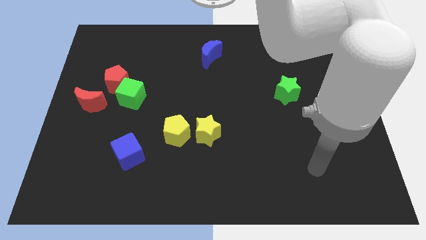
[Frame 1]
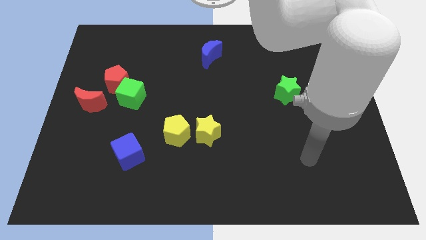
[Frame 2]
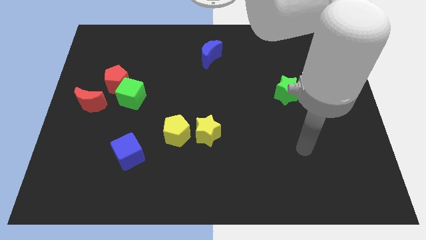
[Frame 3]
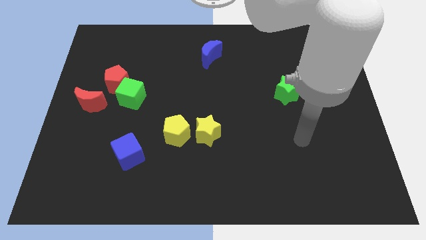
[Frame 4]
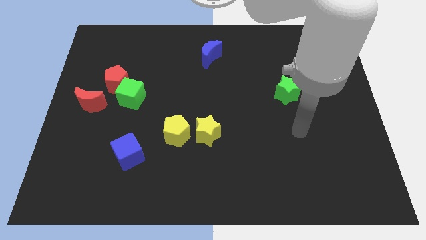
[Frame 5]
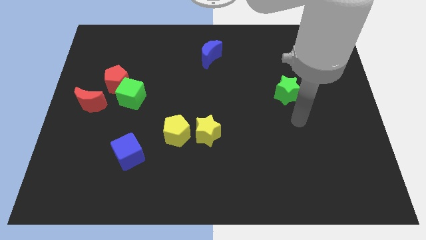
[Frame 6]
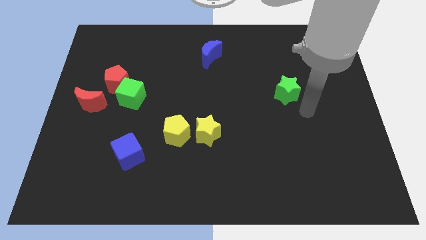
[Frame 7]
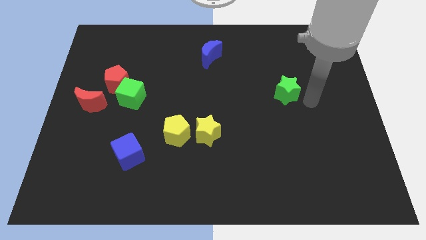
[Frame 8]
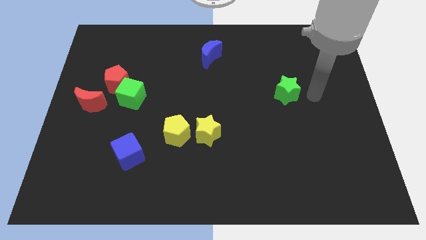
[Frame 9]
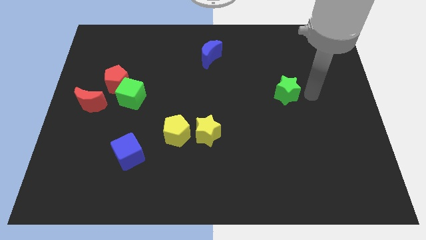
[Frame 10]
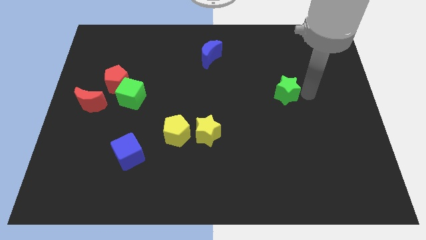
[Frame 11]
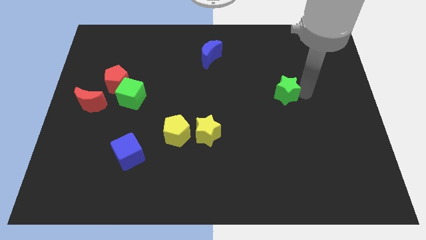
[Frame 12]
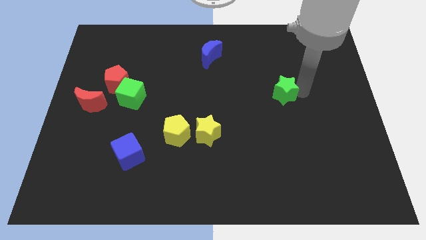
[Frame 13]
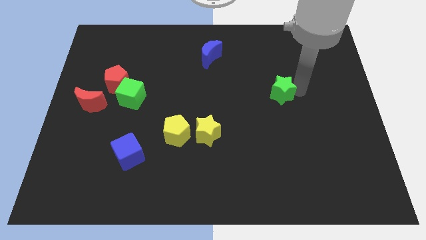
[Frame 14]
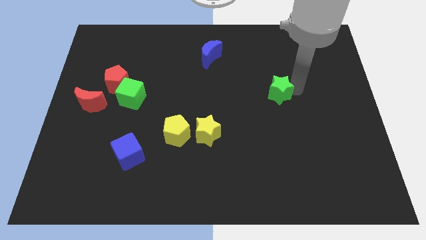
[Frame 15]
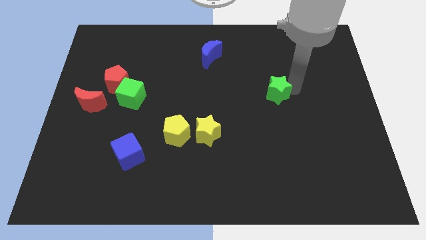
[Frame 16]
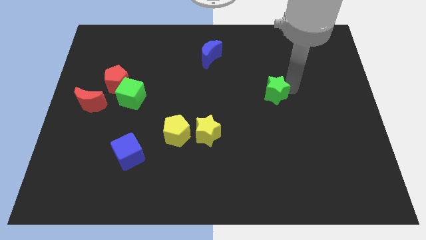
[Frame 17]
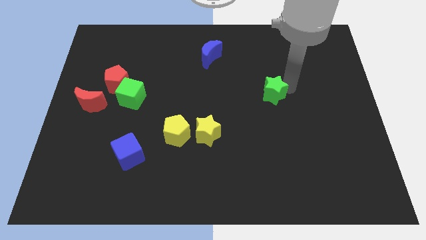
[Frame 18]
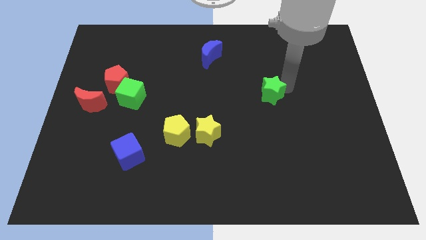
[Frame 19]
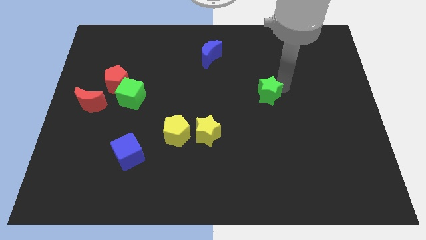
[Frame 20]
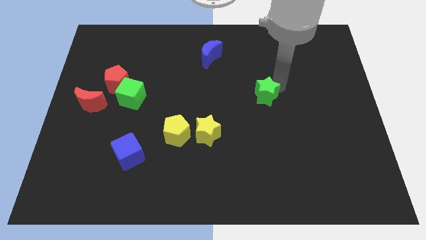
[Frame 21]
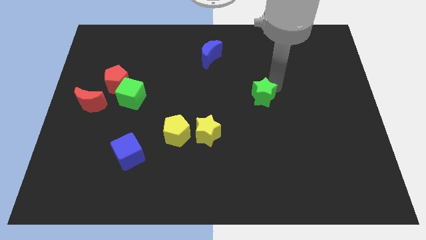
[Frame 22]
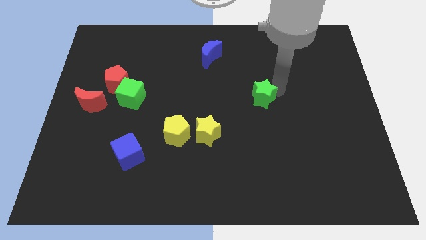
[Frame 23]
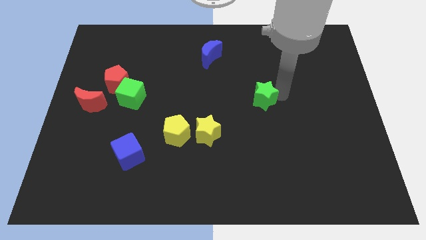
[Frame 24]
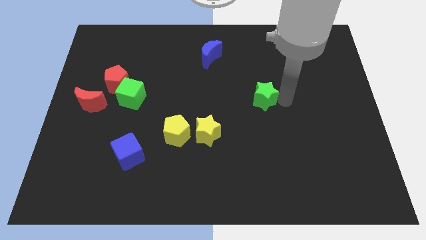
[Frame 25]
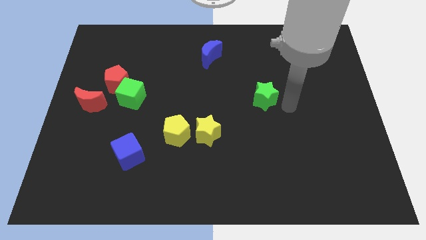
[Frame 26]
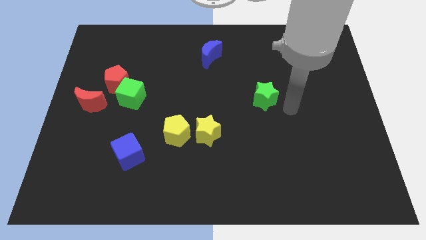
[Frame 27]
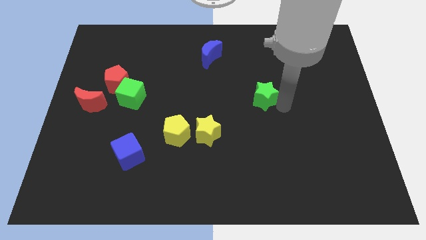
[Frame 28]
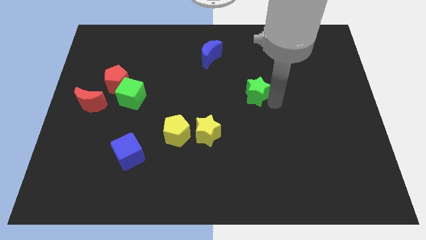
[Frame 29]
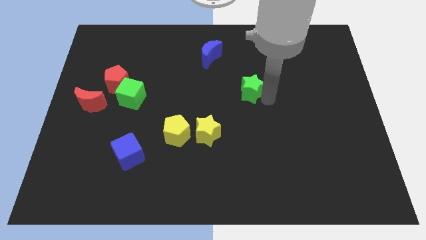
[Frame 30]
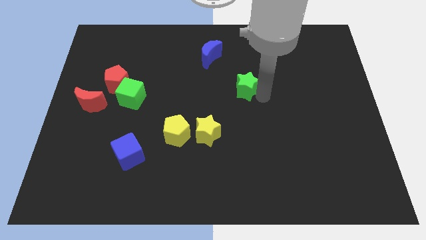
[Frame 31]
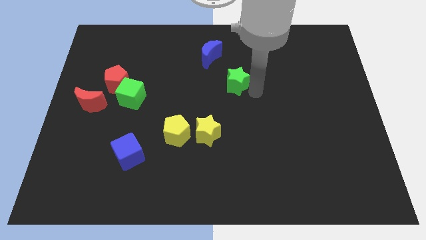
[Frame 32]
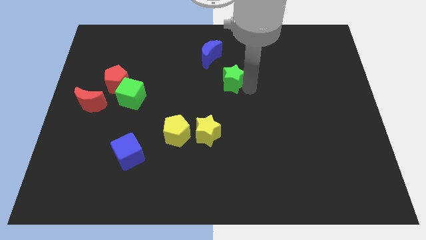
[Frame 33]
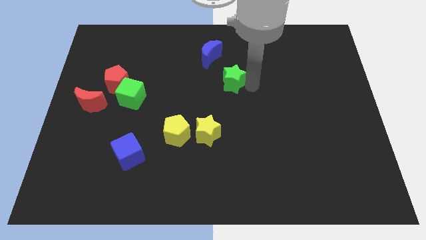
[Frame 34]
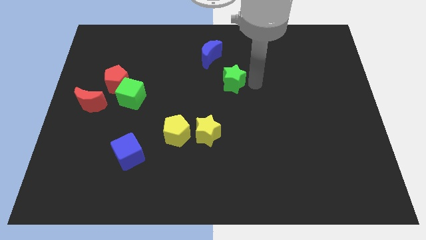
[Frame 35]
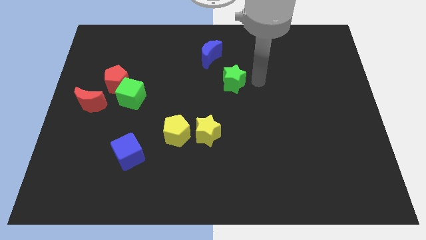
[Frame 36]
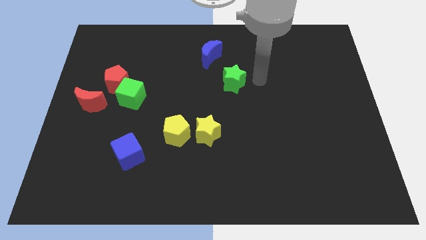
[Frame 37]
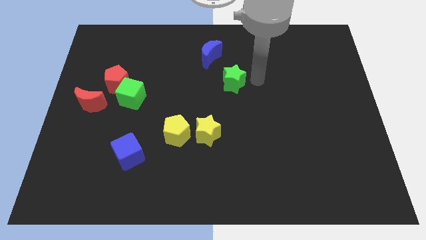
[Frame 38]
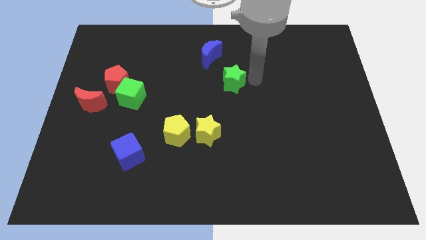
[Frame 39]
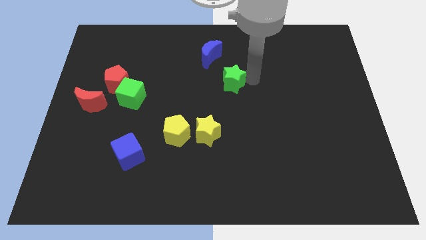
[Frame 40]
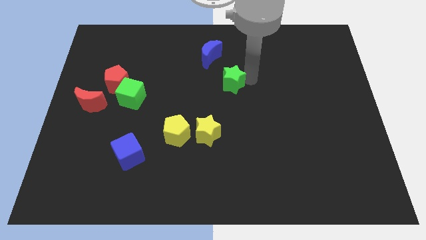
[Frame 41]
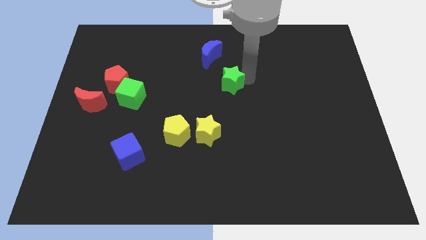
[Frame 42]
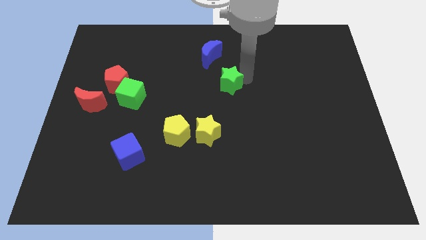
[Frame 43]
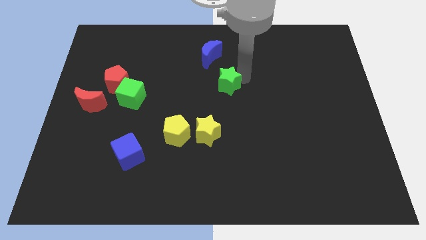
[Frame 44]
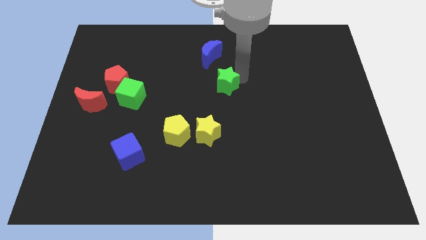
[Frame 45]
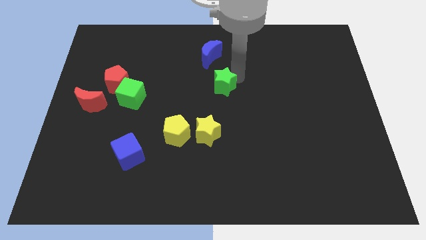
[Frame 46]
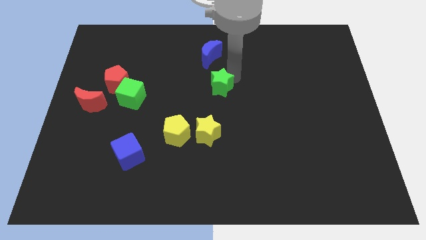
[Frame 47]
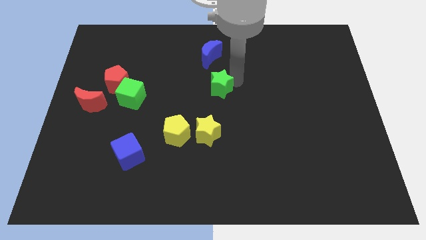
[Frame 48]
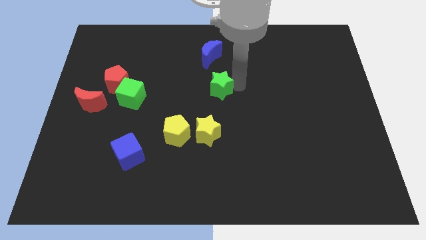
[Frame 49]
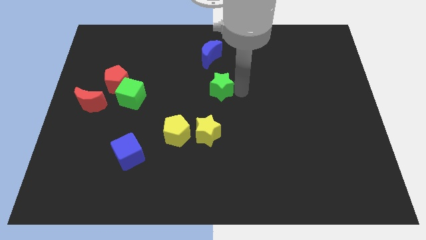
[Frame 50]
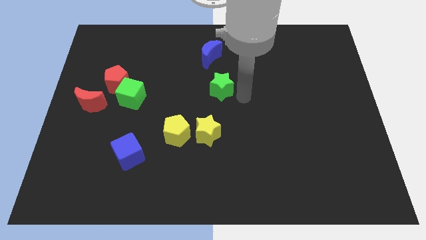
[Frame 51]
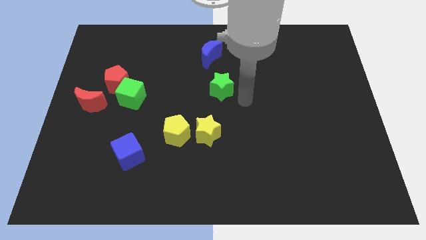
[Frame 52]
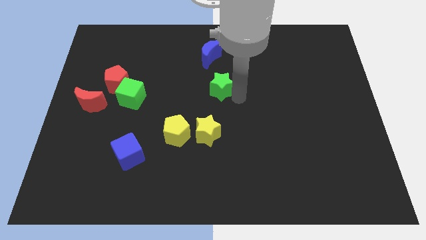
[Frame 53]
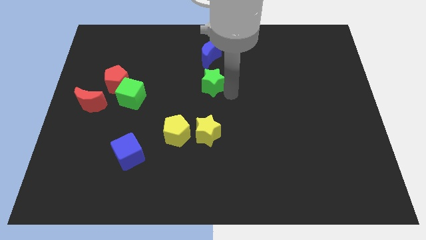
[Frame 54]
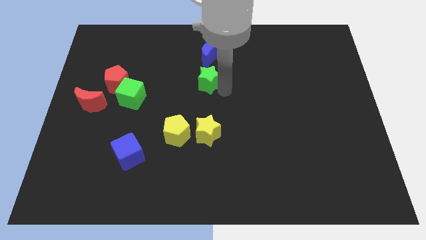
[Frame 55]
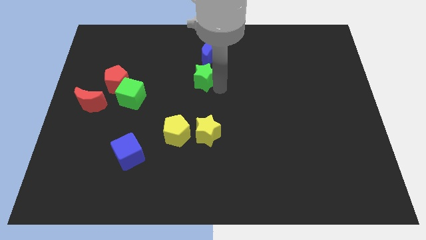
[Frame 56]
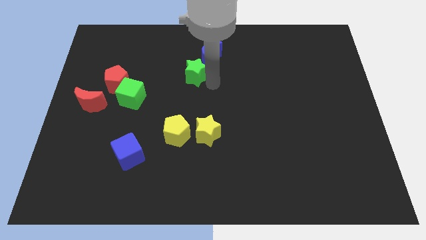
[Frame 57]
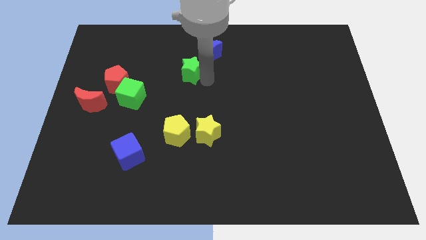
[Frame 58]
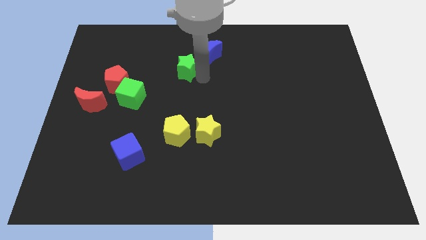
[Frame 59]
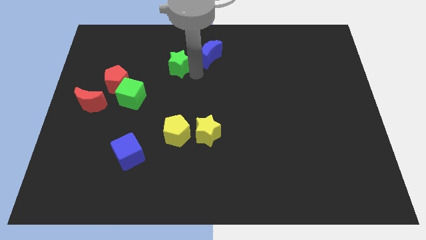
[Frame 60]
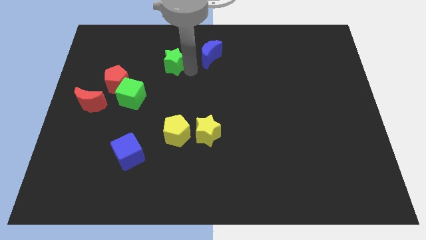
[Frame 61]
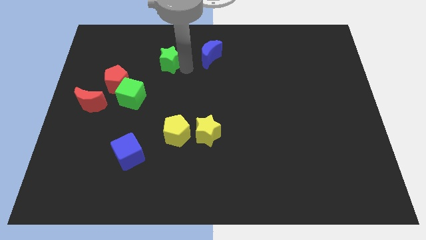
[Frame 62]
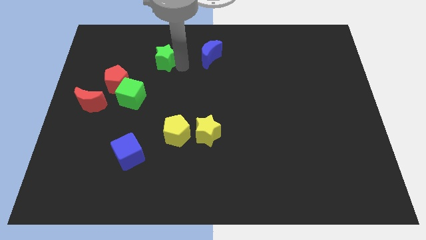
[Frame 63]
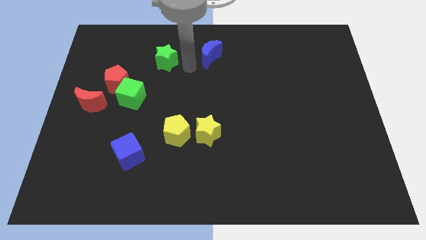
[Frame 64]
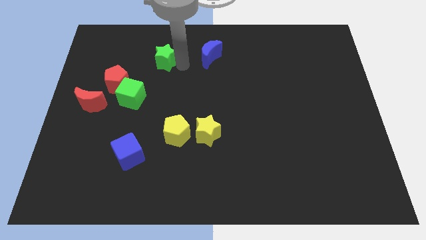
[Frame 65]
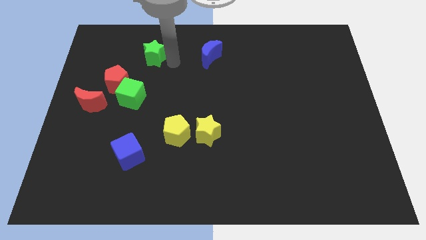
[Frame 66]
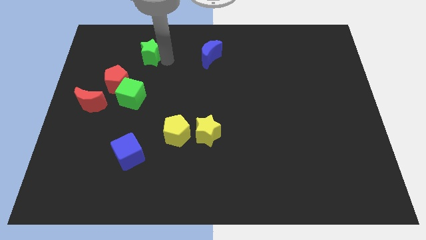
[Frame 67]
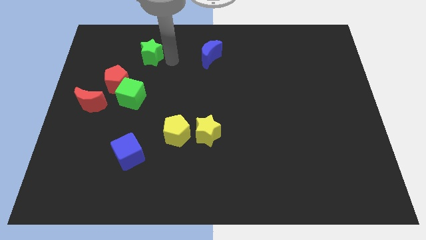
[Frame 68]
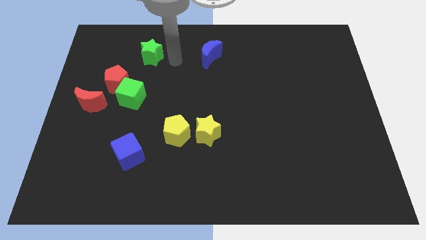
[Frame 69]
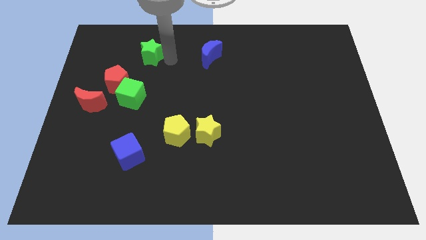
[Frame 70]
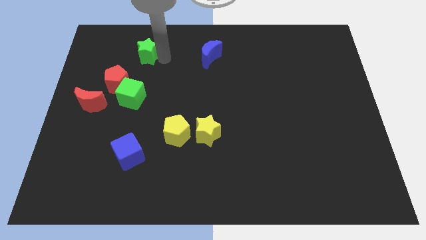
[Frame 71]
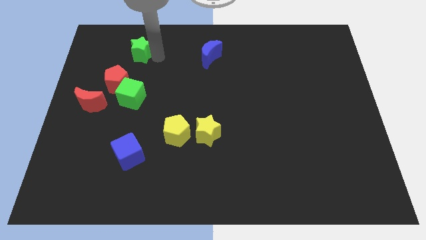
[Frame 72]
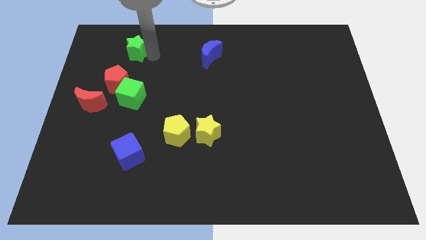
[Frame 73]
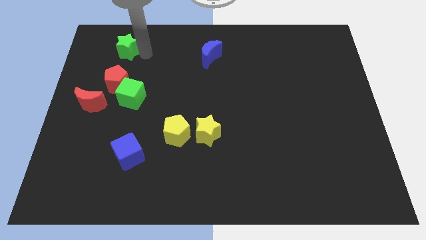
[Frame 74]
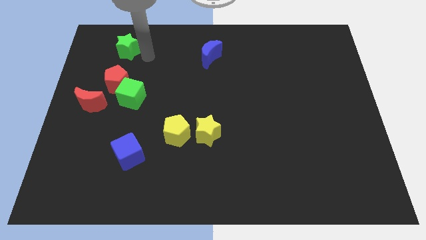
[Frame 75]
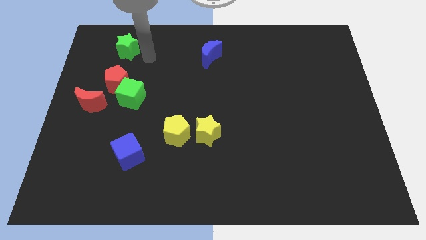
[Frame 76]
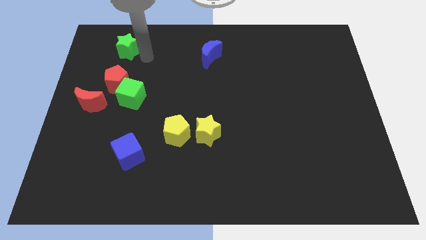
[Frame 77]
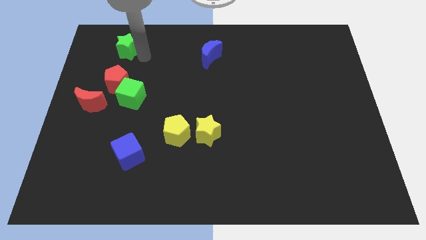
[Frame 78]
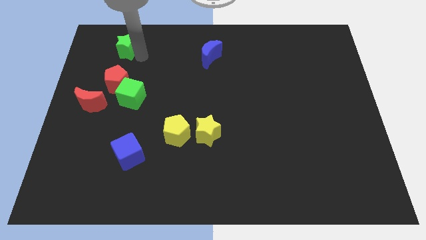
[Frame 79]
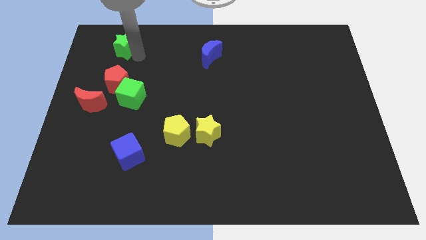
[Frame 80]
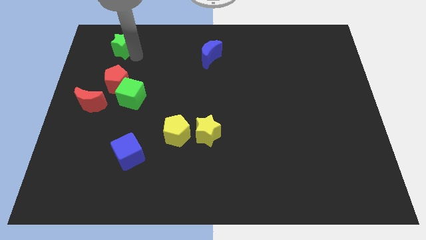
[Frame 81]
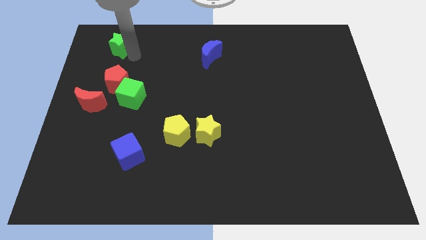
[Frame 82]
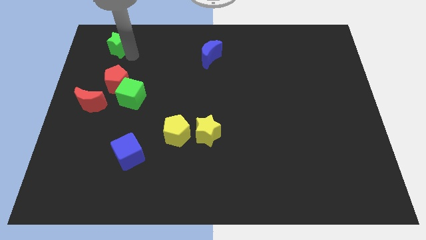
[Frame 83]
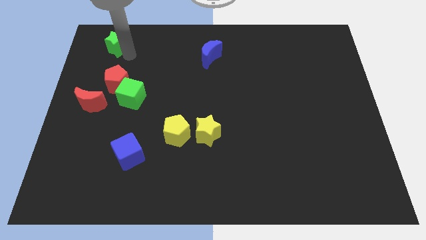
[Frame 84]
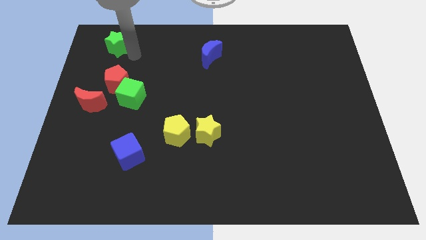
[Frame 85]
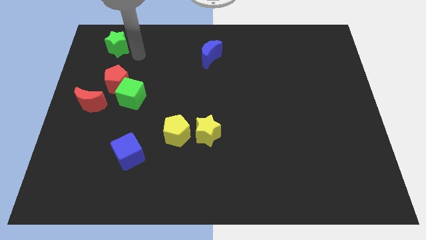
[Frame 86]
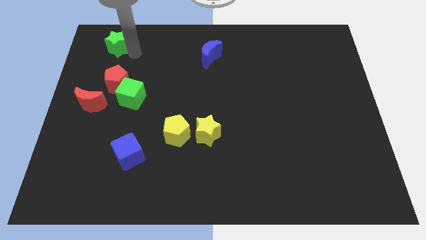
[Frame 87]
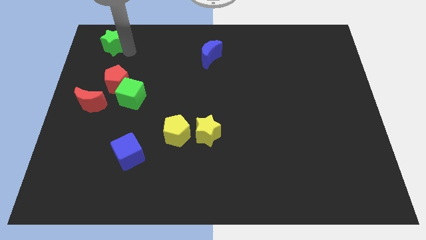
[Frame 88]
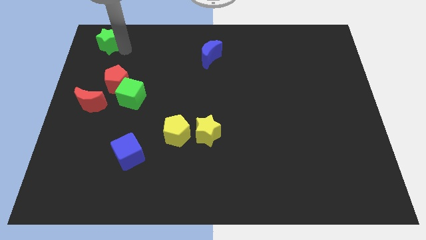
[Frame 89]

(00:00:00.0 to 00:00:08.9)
push the green star to the top left of the board
